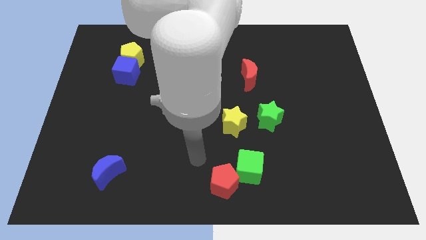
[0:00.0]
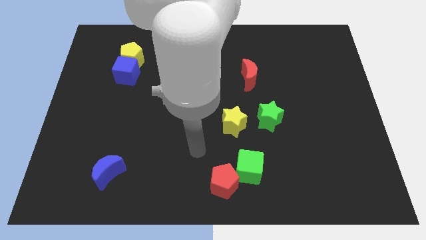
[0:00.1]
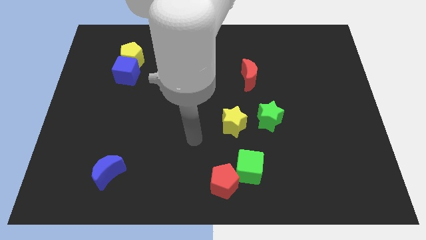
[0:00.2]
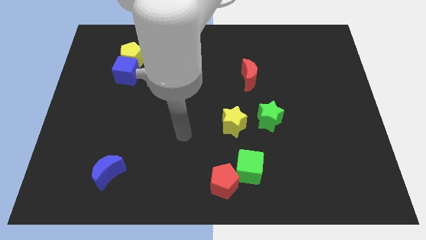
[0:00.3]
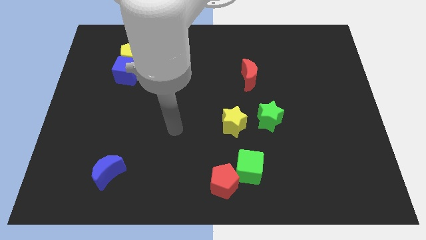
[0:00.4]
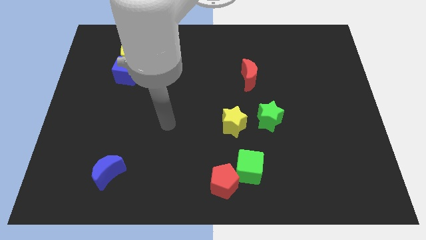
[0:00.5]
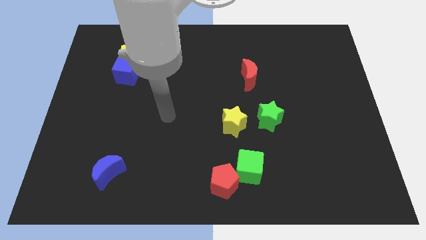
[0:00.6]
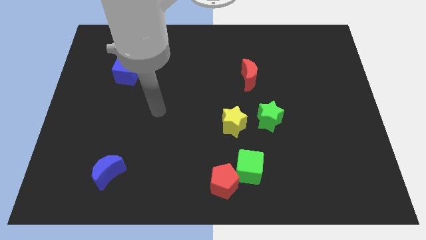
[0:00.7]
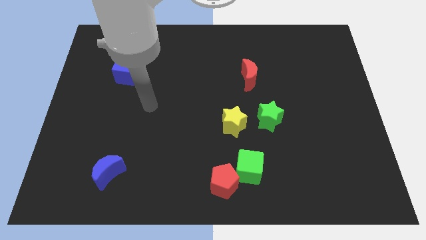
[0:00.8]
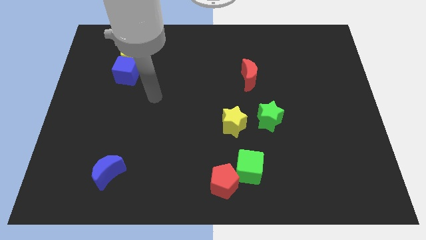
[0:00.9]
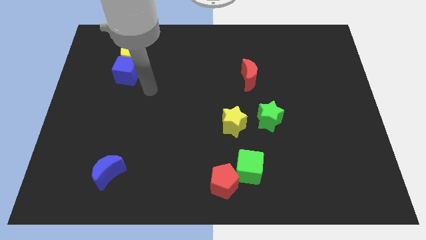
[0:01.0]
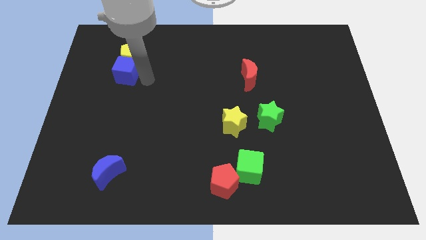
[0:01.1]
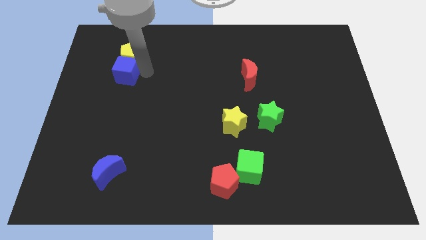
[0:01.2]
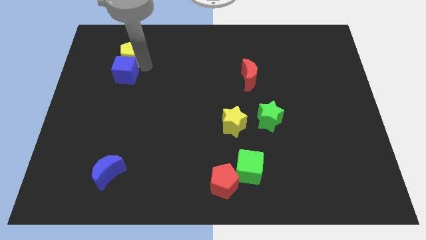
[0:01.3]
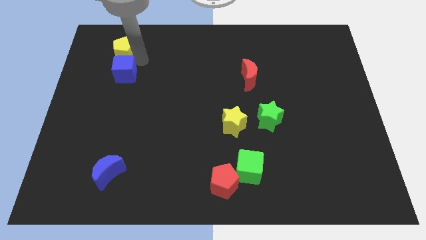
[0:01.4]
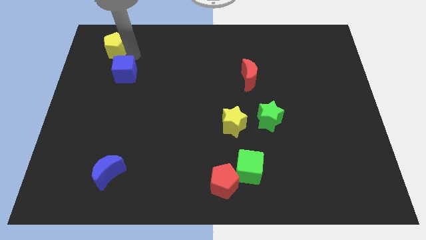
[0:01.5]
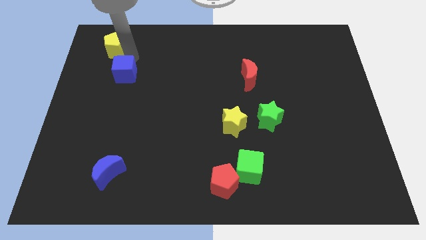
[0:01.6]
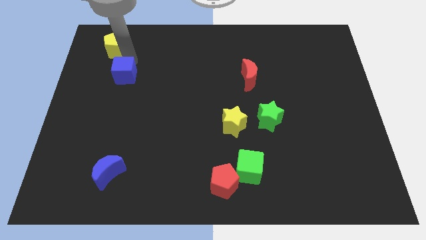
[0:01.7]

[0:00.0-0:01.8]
pull the blue cube apart from the yellow pentagon

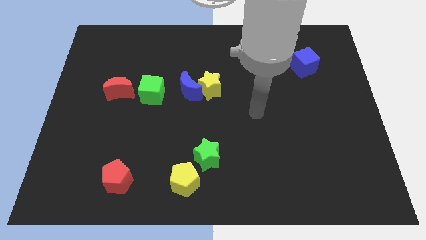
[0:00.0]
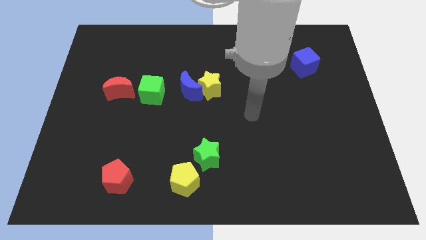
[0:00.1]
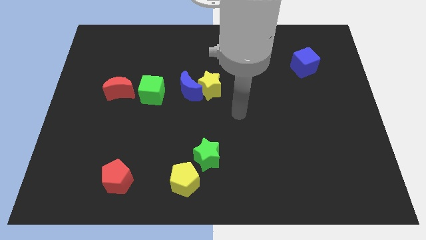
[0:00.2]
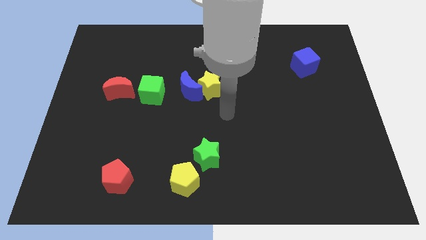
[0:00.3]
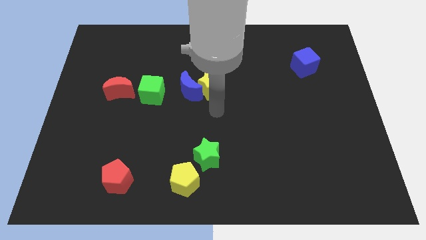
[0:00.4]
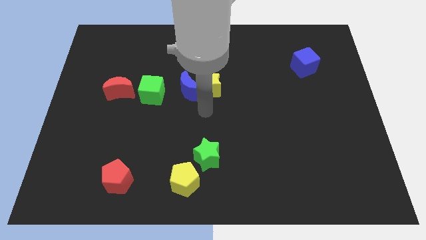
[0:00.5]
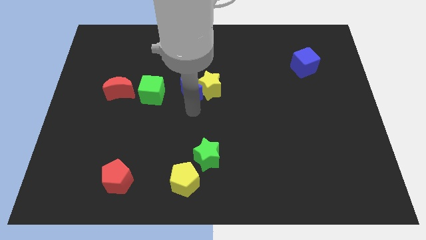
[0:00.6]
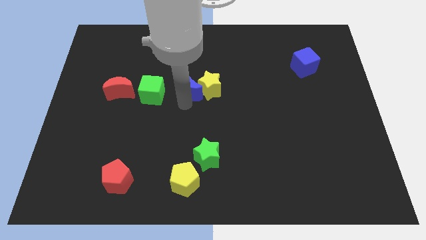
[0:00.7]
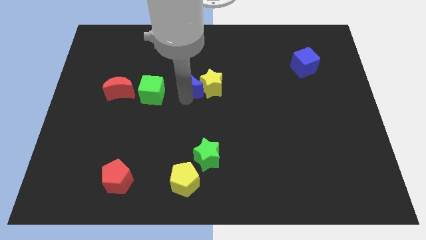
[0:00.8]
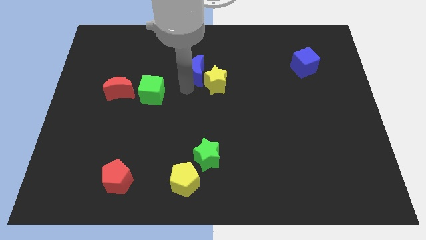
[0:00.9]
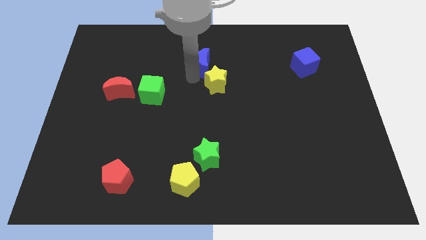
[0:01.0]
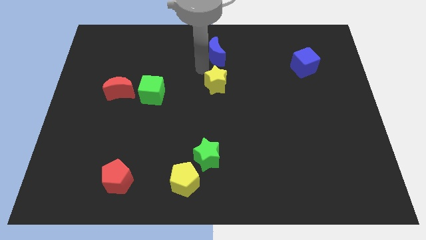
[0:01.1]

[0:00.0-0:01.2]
move the yellow star away from the blue moon

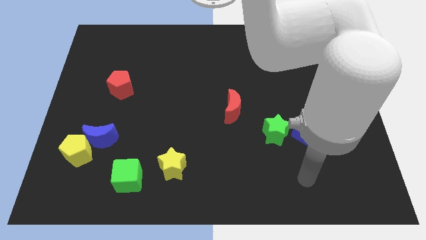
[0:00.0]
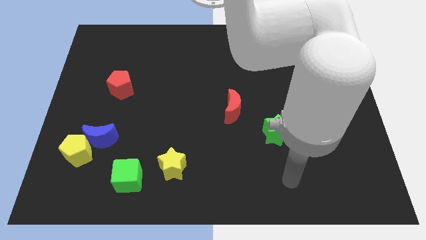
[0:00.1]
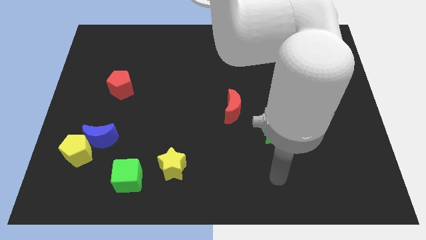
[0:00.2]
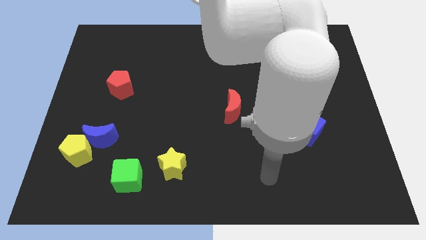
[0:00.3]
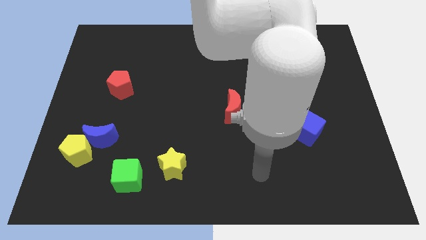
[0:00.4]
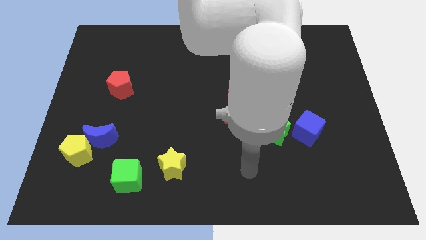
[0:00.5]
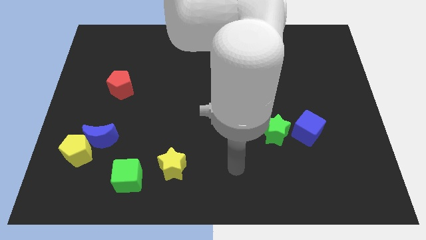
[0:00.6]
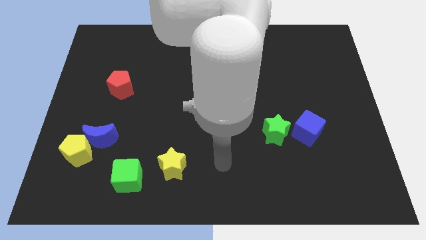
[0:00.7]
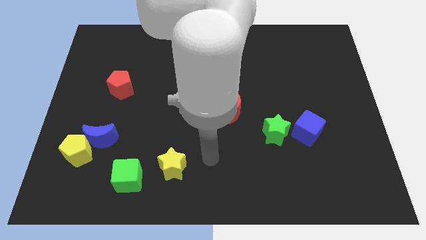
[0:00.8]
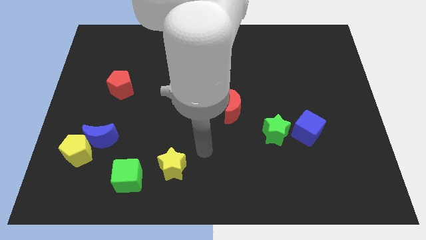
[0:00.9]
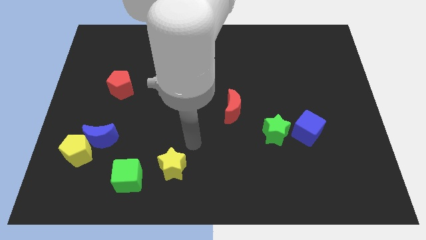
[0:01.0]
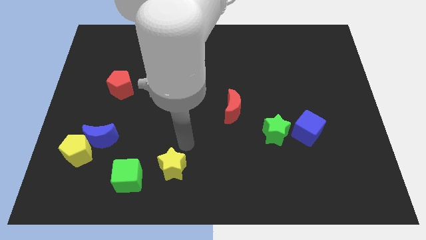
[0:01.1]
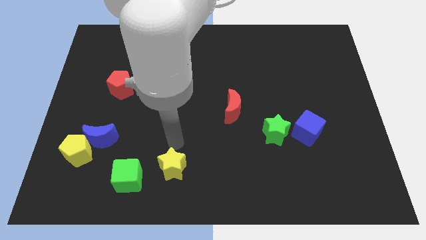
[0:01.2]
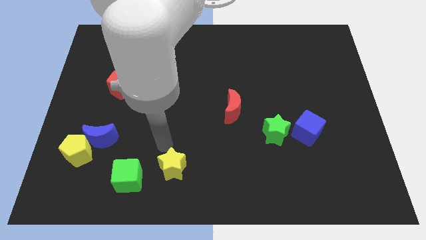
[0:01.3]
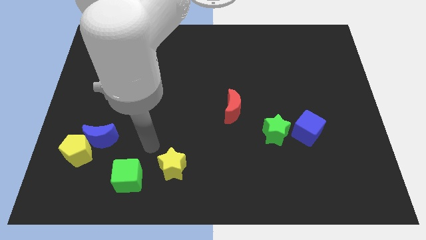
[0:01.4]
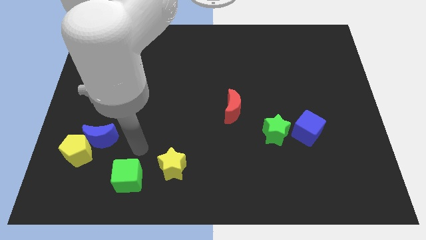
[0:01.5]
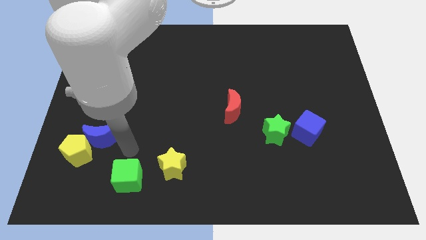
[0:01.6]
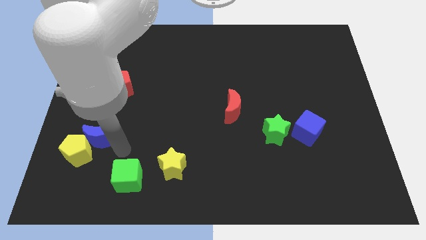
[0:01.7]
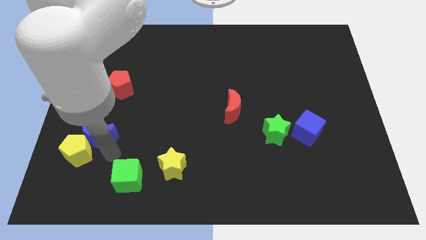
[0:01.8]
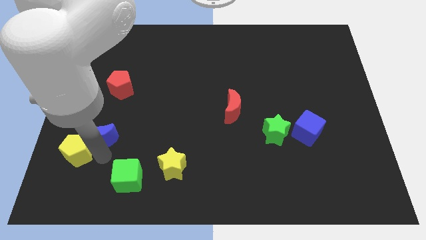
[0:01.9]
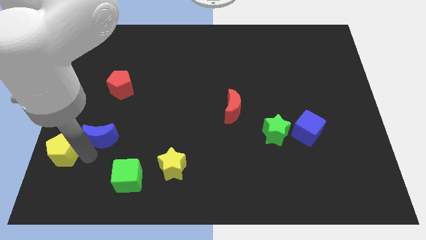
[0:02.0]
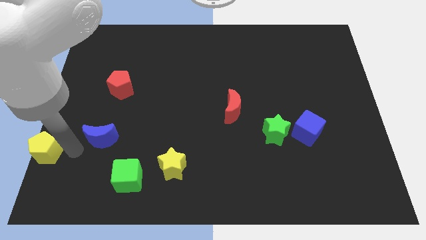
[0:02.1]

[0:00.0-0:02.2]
move the blue moon away from the yellow pentagon

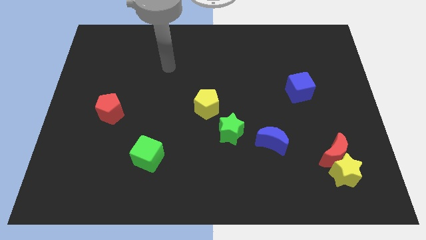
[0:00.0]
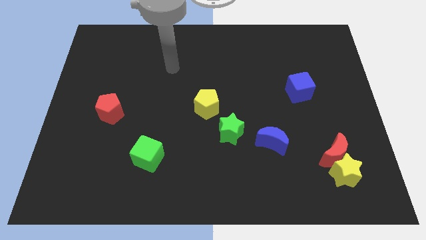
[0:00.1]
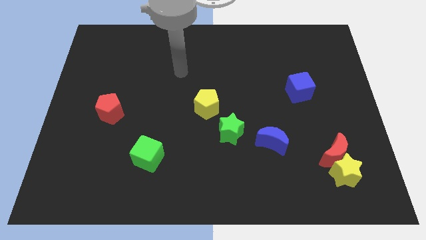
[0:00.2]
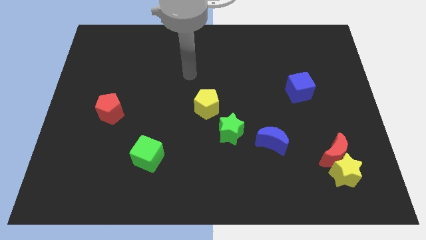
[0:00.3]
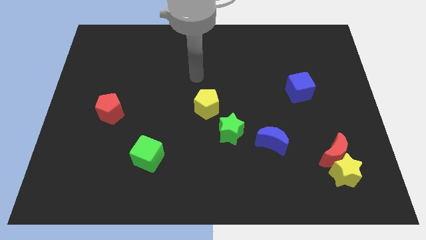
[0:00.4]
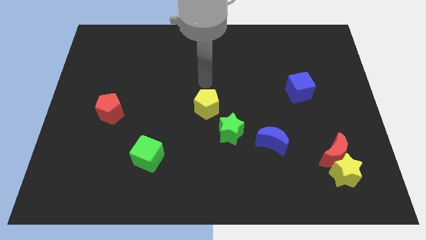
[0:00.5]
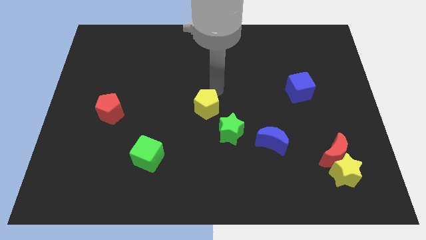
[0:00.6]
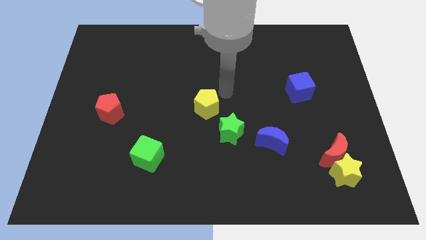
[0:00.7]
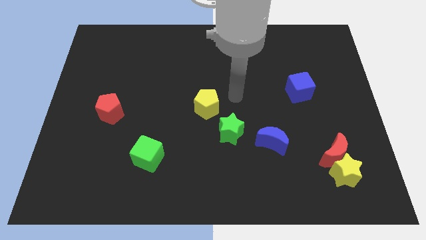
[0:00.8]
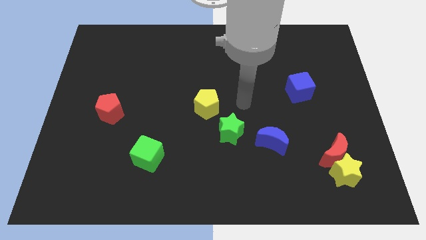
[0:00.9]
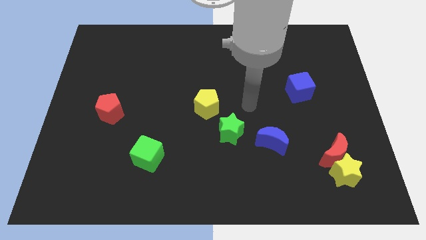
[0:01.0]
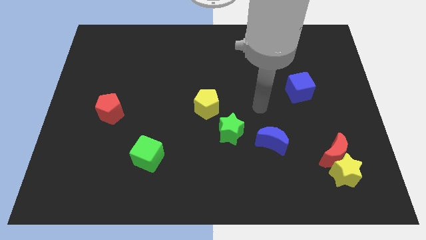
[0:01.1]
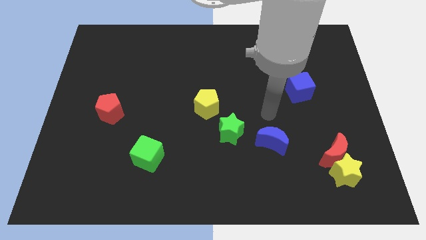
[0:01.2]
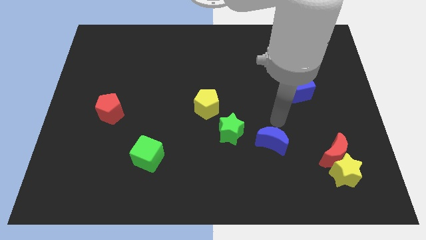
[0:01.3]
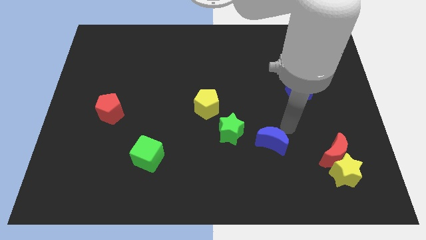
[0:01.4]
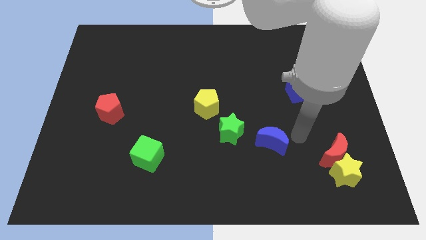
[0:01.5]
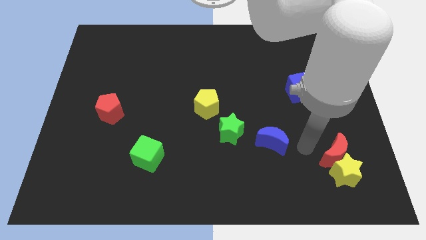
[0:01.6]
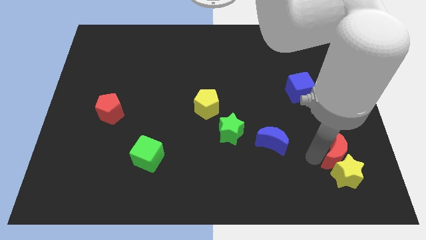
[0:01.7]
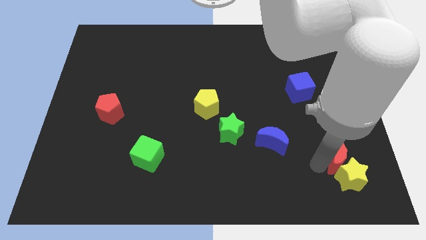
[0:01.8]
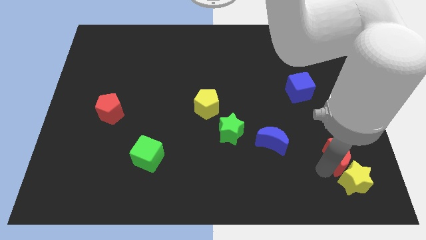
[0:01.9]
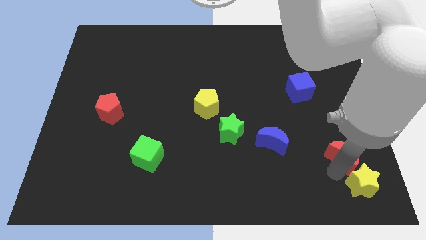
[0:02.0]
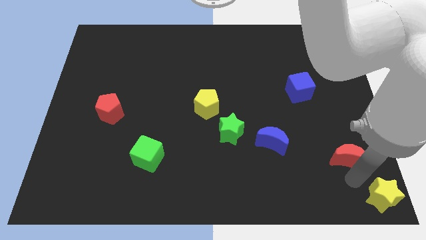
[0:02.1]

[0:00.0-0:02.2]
separate the red moon from the yellow star

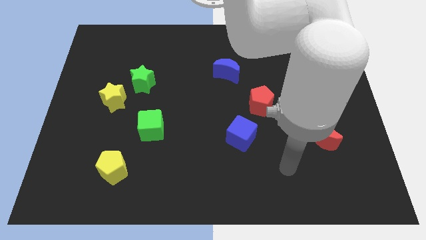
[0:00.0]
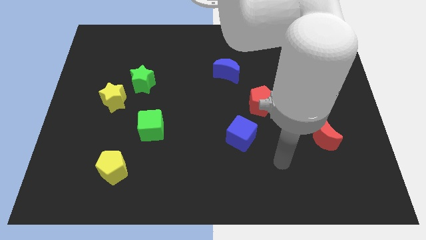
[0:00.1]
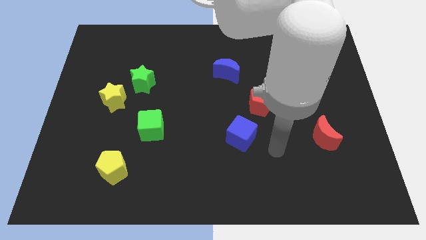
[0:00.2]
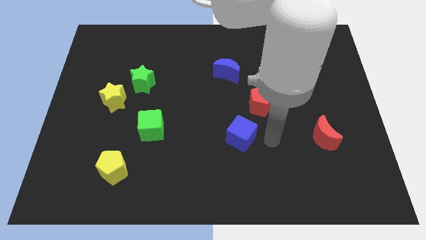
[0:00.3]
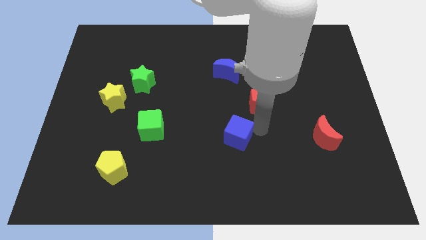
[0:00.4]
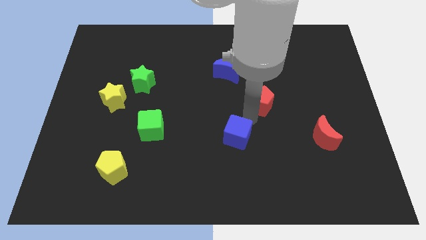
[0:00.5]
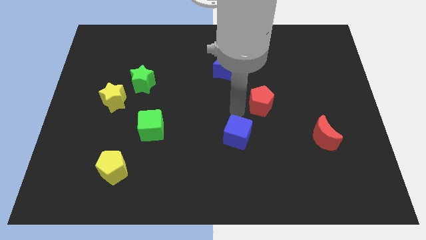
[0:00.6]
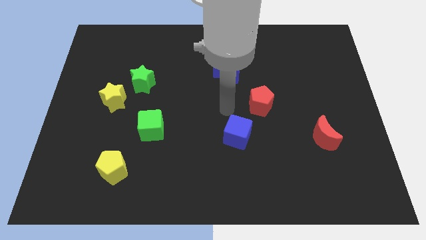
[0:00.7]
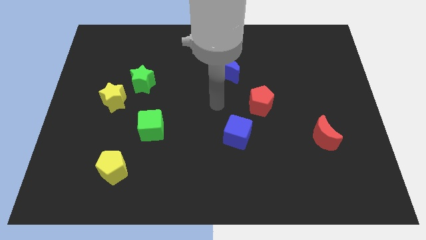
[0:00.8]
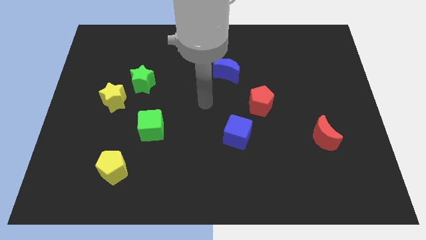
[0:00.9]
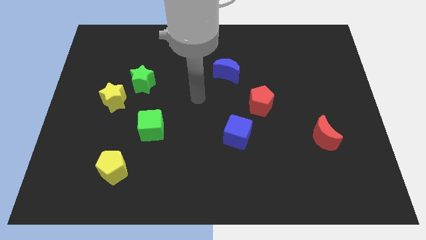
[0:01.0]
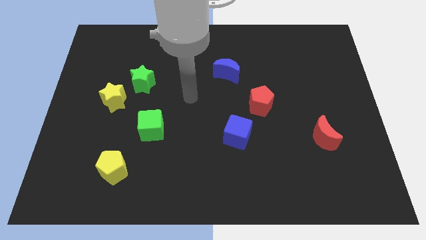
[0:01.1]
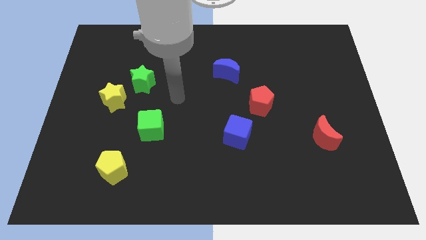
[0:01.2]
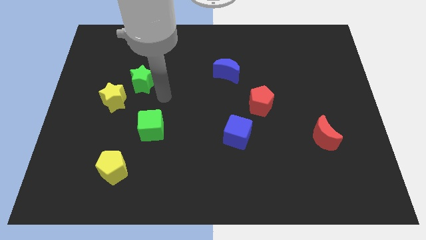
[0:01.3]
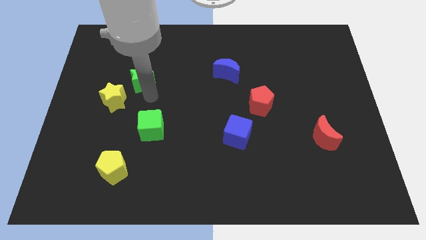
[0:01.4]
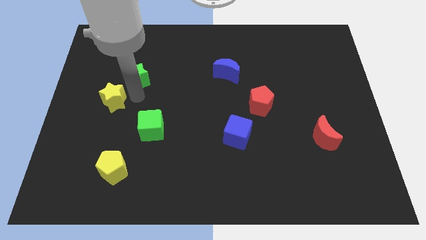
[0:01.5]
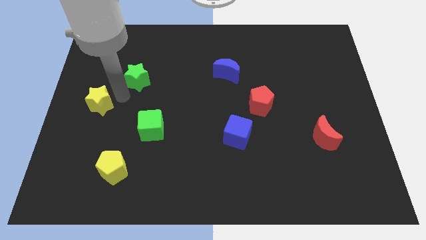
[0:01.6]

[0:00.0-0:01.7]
separate the green star from the yellow star

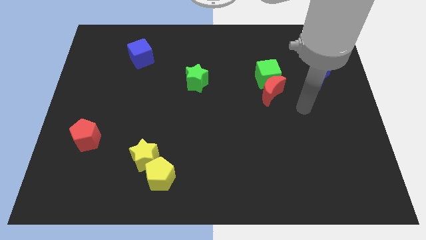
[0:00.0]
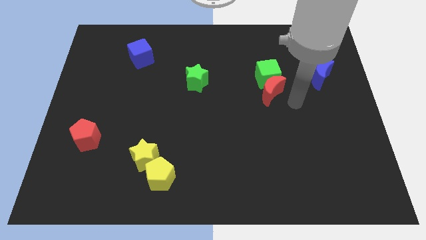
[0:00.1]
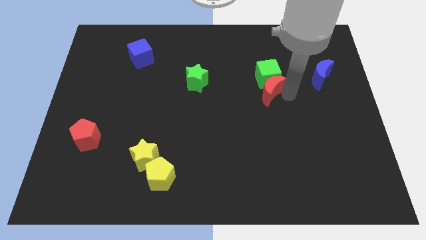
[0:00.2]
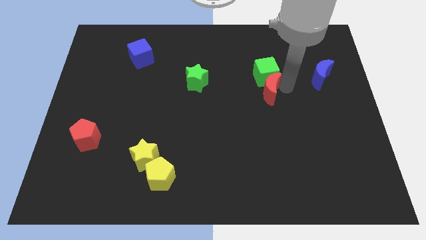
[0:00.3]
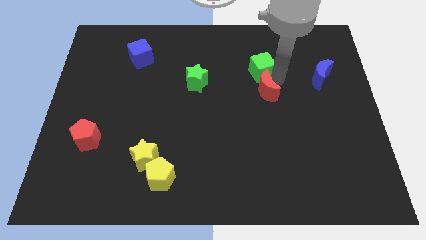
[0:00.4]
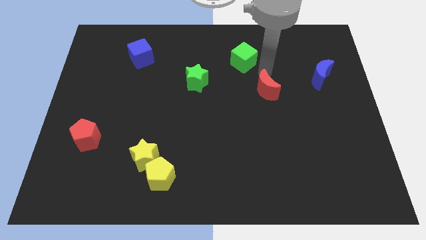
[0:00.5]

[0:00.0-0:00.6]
pull the red moon apart from the green cube
